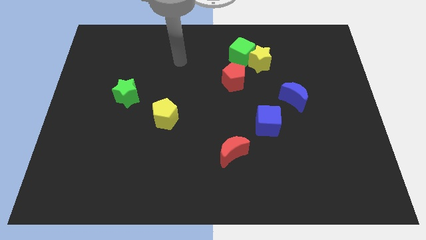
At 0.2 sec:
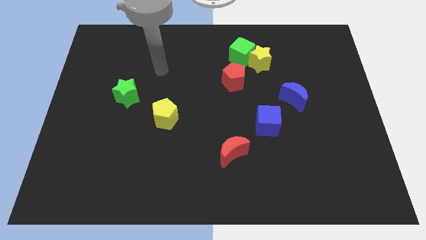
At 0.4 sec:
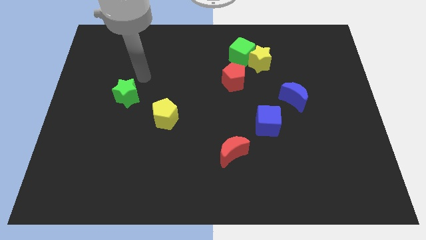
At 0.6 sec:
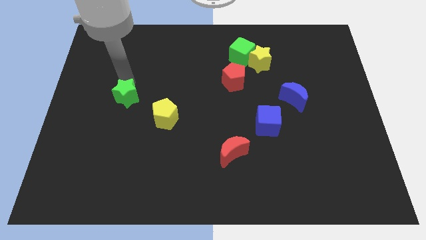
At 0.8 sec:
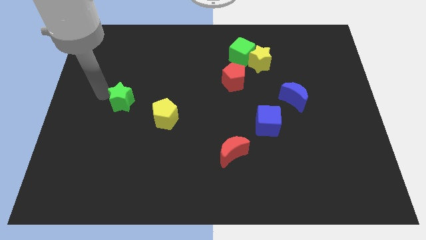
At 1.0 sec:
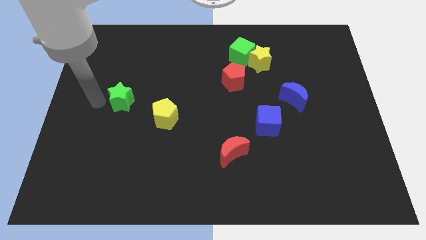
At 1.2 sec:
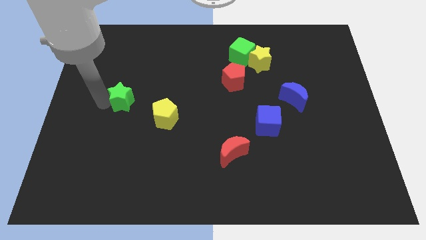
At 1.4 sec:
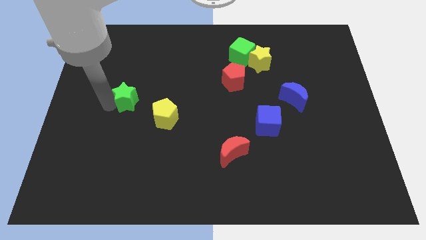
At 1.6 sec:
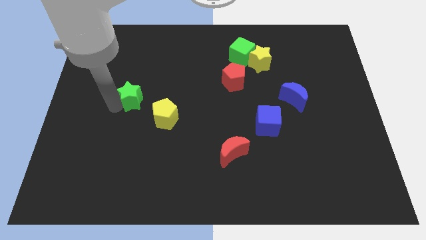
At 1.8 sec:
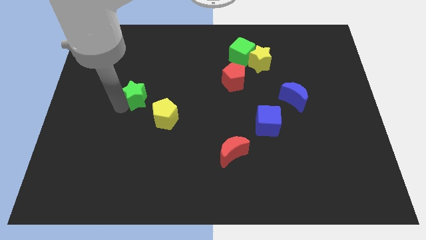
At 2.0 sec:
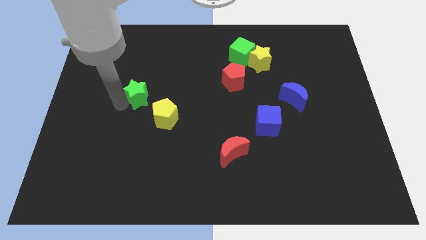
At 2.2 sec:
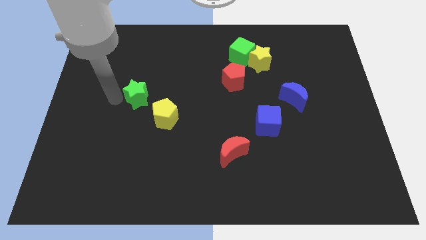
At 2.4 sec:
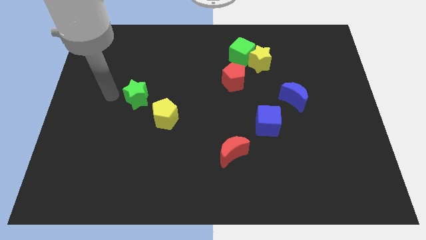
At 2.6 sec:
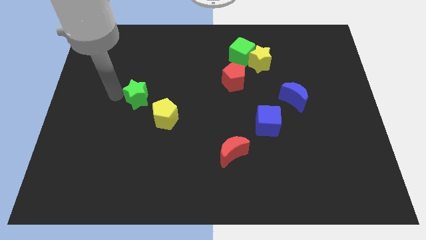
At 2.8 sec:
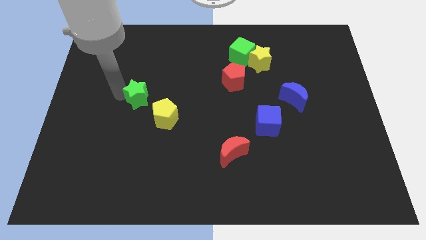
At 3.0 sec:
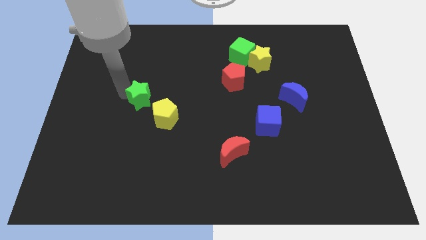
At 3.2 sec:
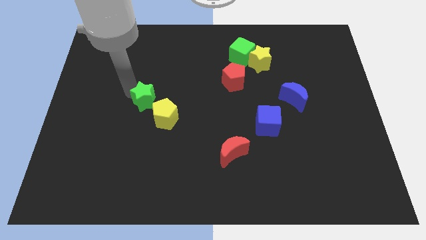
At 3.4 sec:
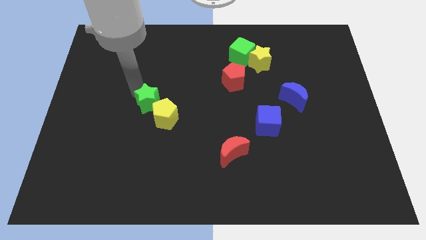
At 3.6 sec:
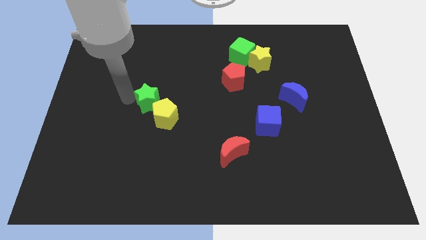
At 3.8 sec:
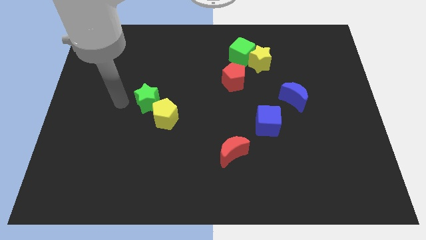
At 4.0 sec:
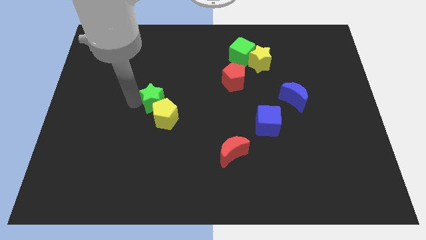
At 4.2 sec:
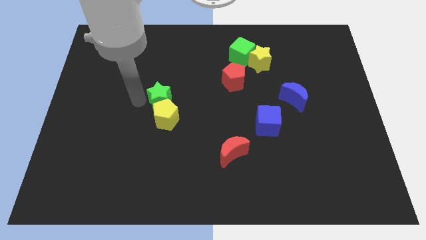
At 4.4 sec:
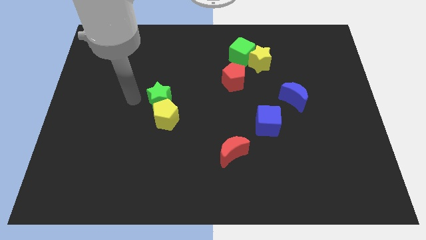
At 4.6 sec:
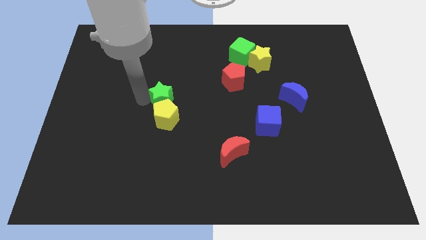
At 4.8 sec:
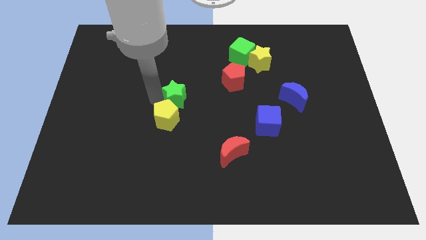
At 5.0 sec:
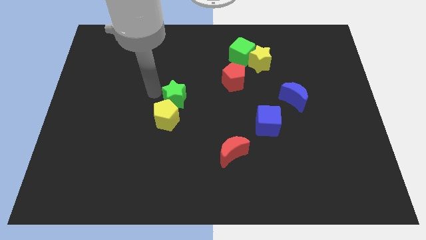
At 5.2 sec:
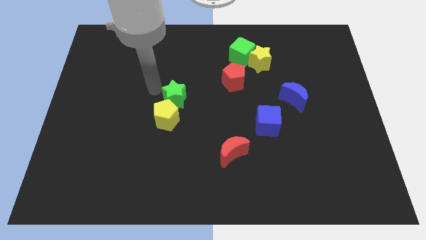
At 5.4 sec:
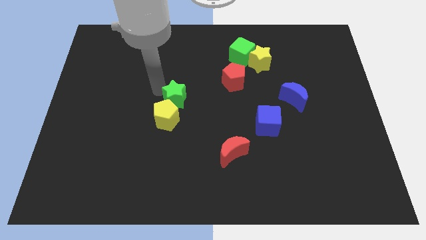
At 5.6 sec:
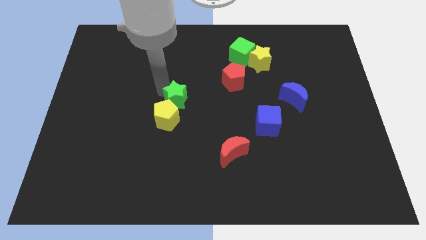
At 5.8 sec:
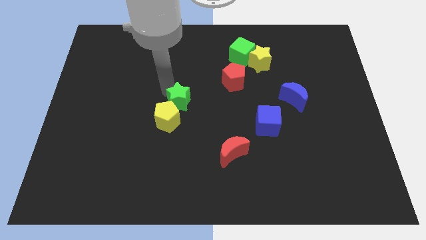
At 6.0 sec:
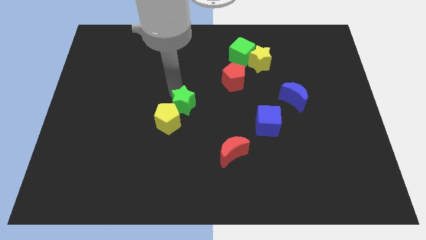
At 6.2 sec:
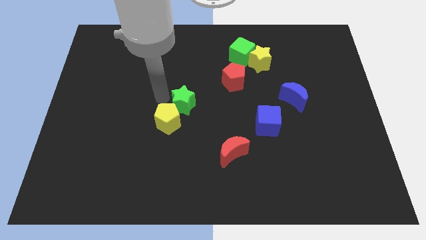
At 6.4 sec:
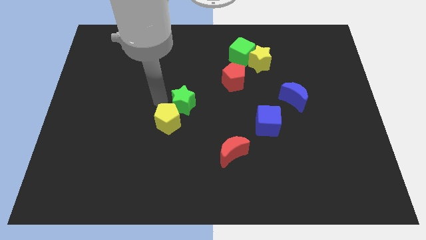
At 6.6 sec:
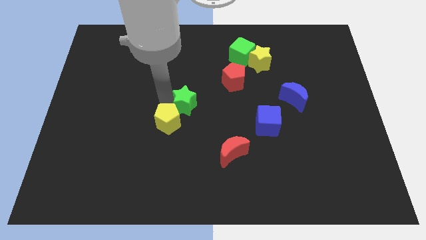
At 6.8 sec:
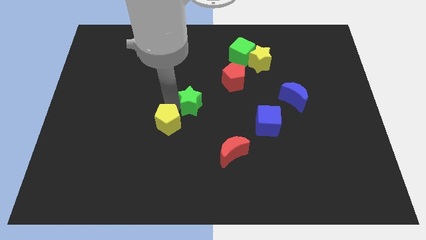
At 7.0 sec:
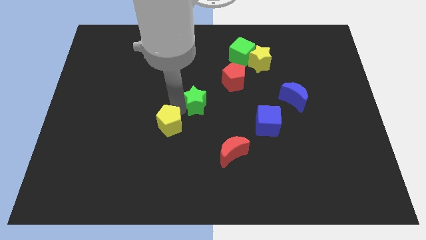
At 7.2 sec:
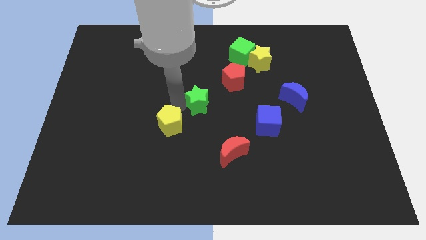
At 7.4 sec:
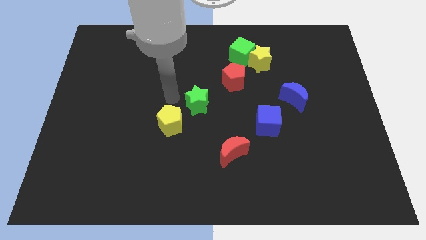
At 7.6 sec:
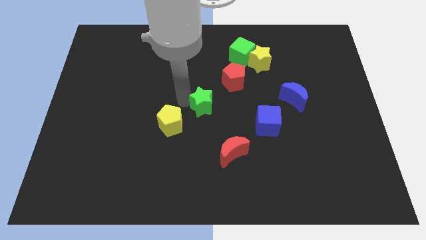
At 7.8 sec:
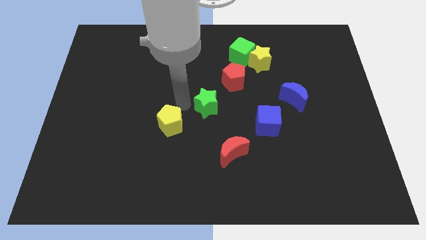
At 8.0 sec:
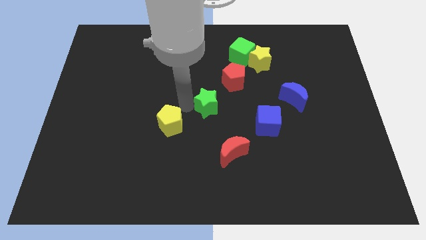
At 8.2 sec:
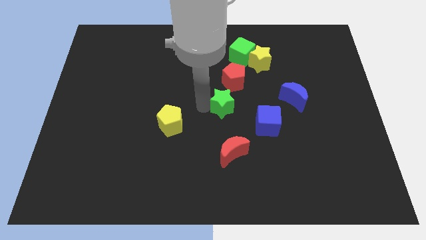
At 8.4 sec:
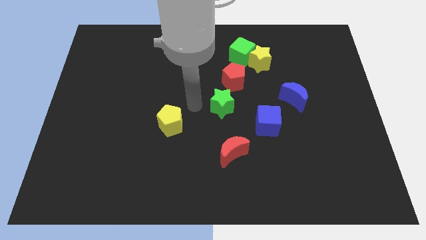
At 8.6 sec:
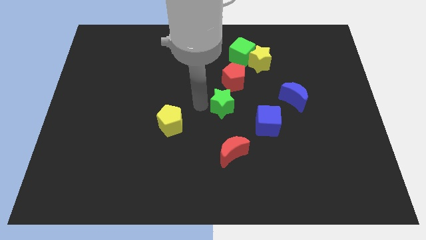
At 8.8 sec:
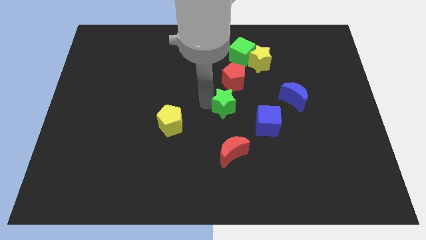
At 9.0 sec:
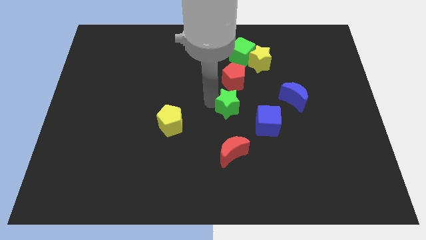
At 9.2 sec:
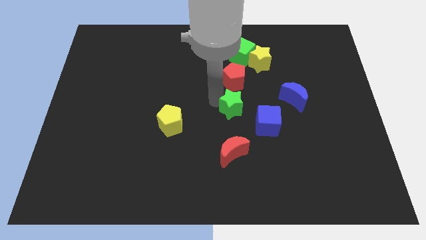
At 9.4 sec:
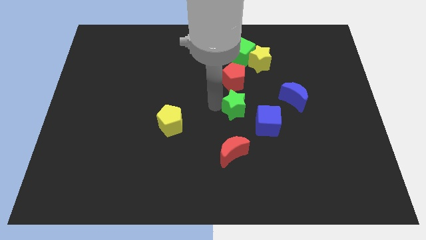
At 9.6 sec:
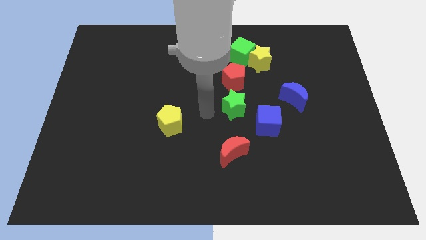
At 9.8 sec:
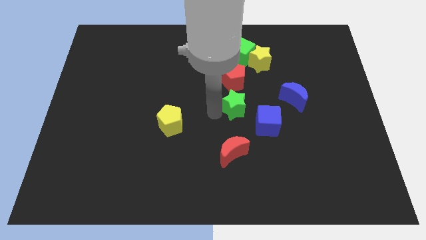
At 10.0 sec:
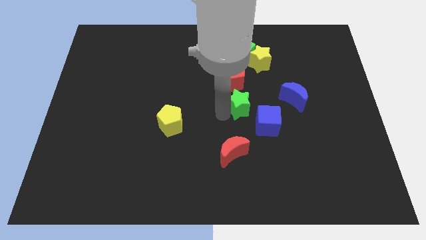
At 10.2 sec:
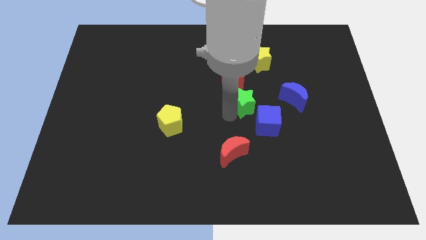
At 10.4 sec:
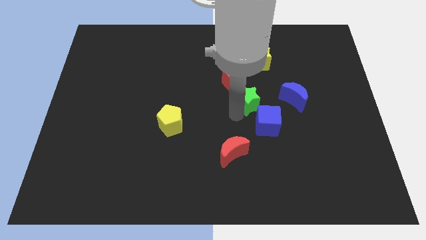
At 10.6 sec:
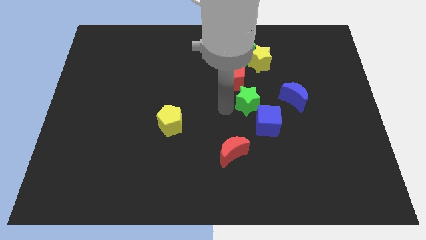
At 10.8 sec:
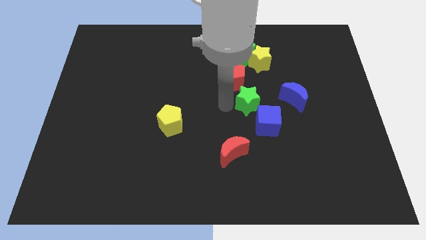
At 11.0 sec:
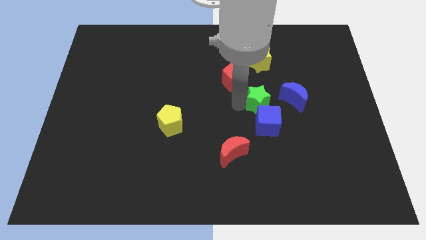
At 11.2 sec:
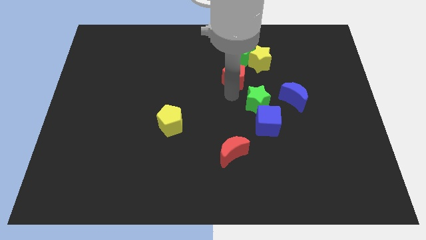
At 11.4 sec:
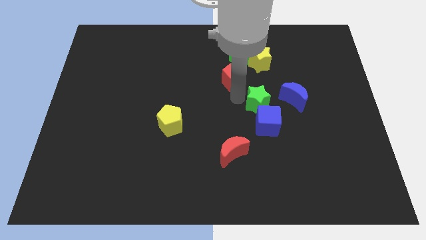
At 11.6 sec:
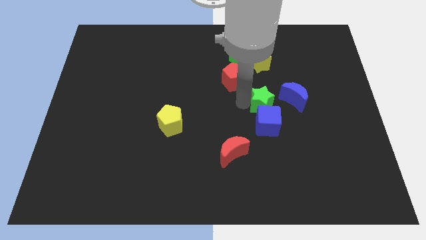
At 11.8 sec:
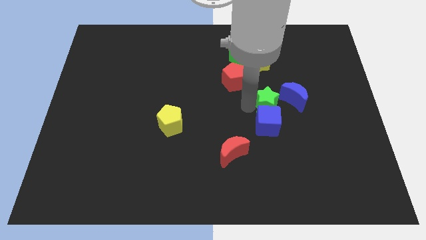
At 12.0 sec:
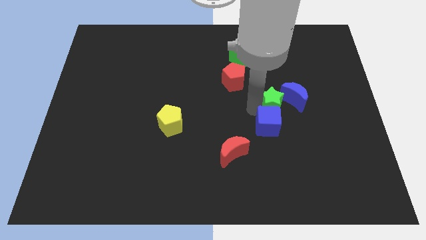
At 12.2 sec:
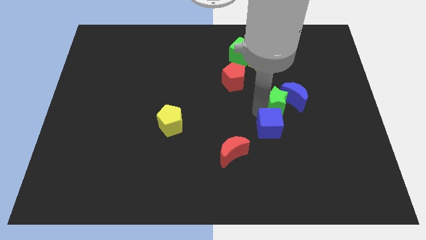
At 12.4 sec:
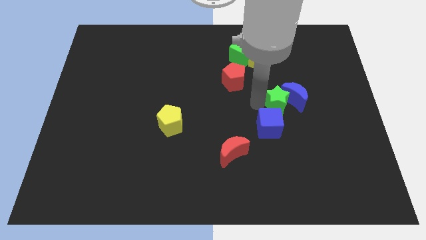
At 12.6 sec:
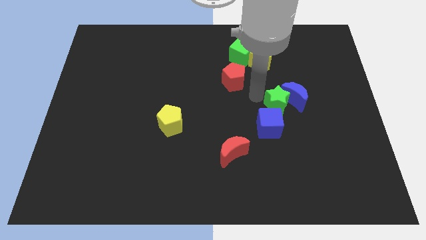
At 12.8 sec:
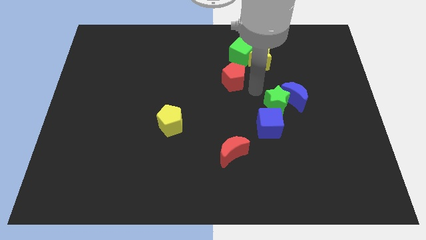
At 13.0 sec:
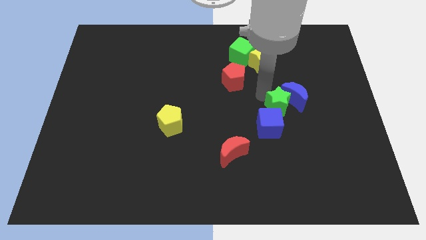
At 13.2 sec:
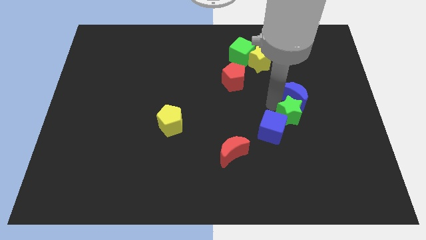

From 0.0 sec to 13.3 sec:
slide the green star to the right side of the blue cube

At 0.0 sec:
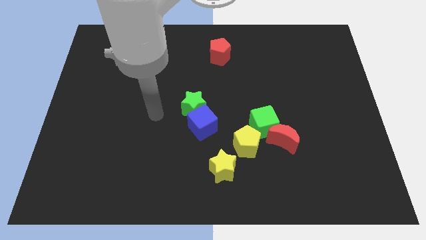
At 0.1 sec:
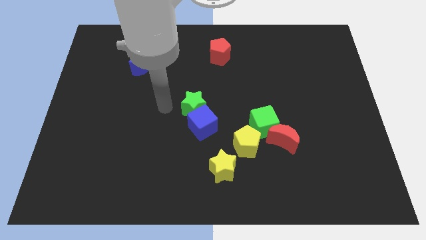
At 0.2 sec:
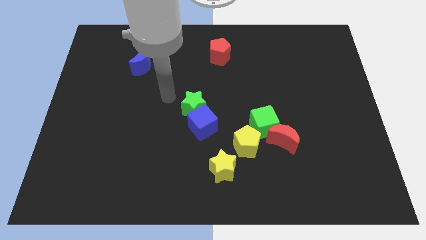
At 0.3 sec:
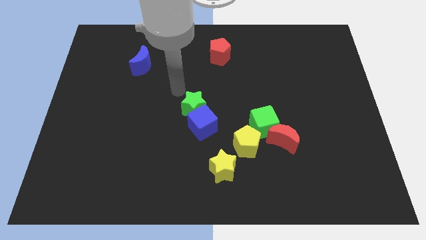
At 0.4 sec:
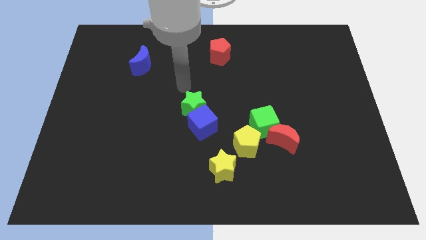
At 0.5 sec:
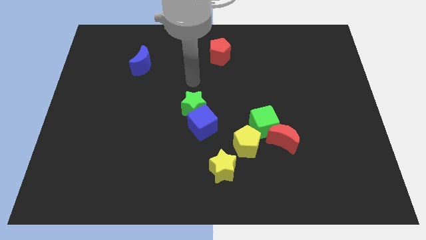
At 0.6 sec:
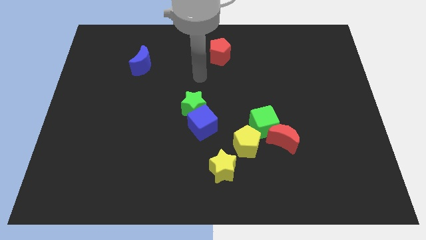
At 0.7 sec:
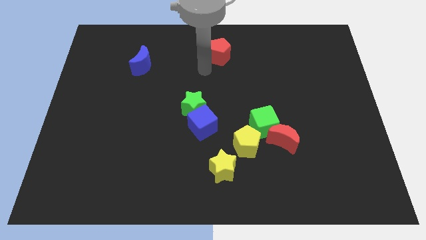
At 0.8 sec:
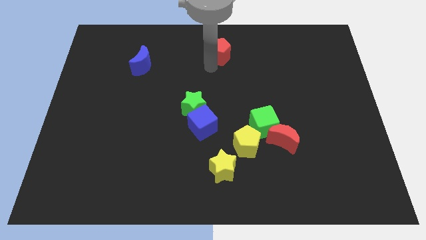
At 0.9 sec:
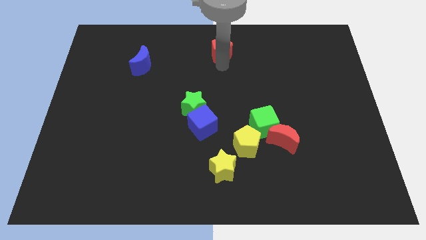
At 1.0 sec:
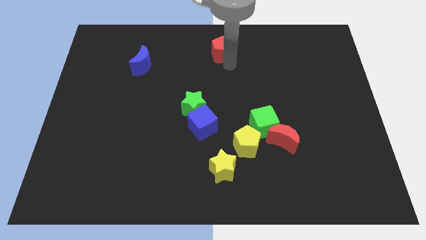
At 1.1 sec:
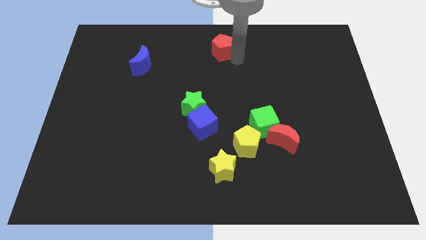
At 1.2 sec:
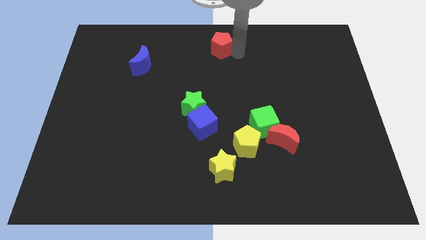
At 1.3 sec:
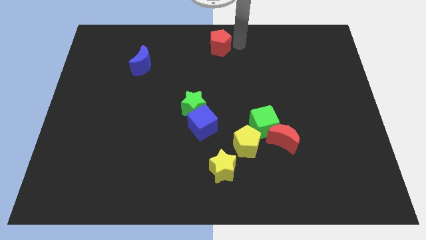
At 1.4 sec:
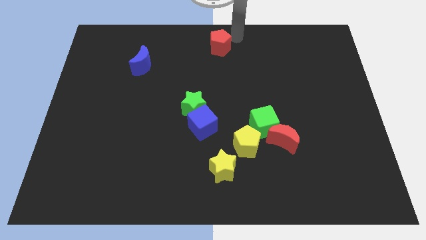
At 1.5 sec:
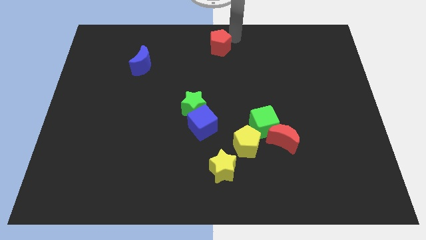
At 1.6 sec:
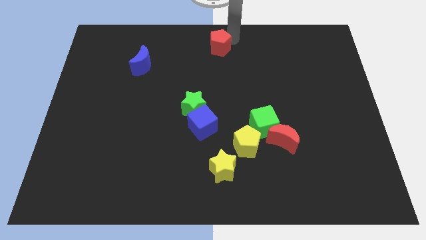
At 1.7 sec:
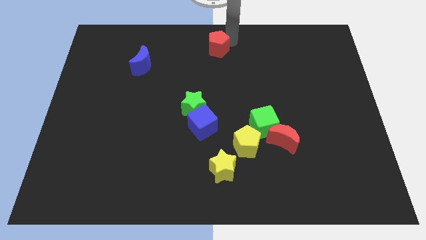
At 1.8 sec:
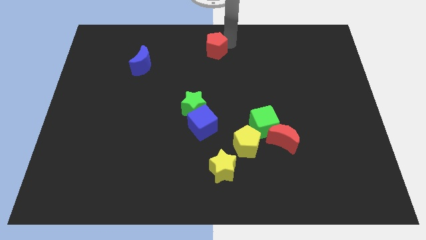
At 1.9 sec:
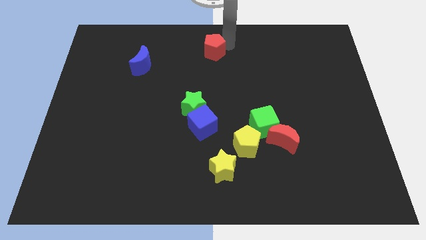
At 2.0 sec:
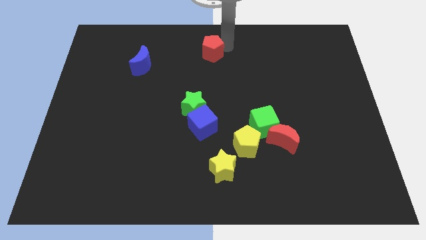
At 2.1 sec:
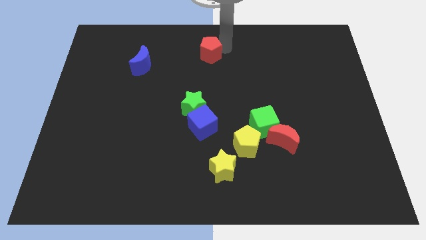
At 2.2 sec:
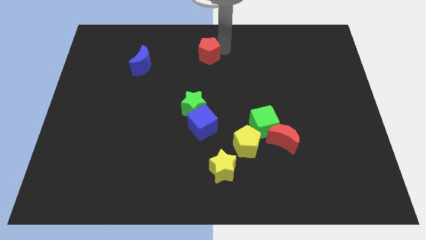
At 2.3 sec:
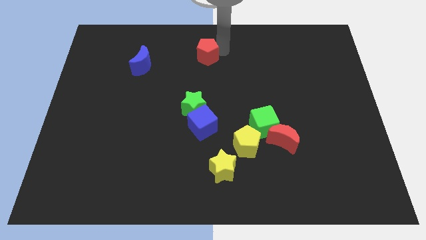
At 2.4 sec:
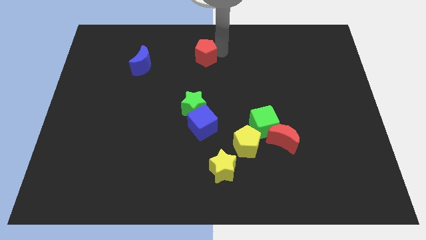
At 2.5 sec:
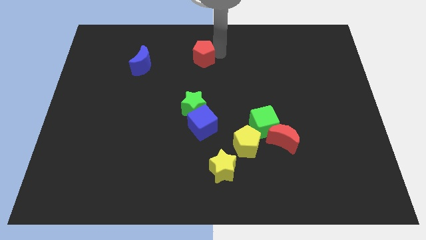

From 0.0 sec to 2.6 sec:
put the red pentagon to the right of the blue moon
